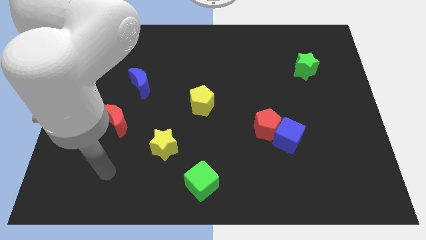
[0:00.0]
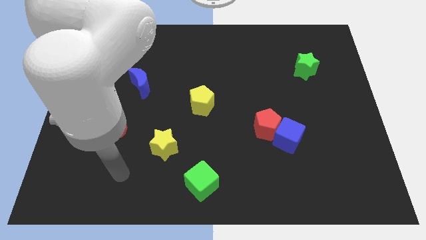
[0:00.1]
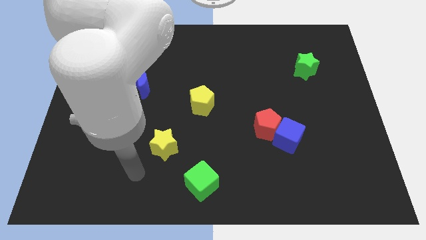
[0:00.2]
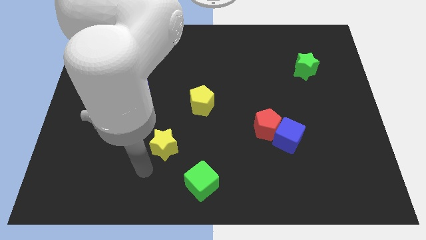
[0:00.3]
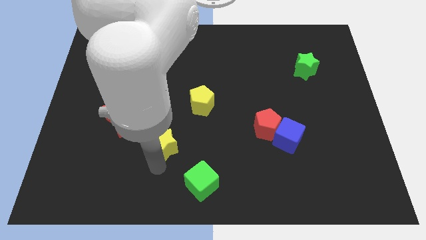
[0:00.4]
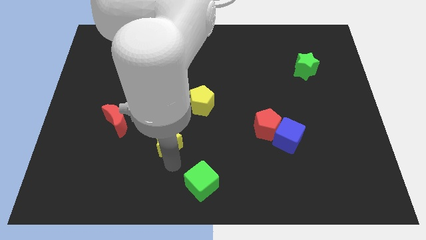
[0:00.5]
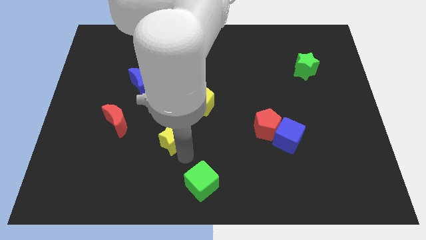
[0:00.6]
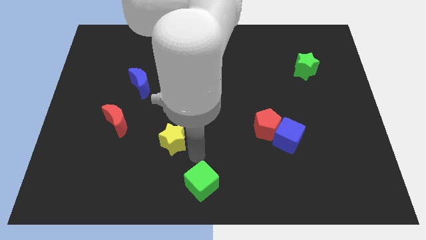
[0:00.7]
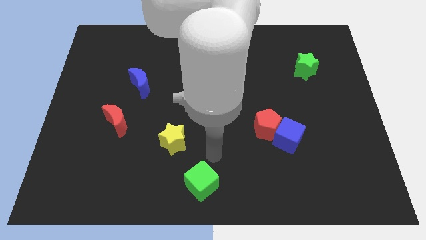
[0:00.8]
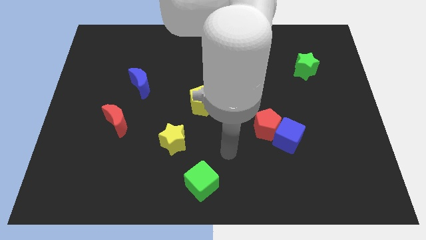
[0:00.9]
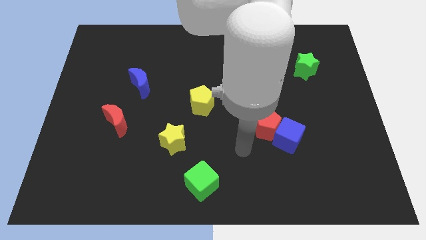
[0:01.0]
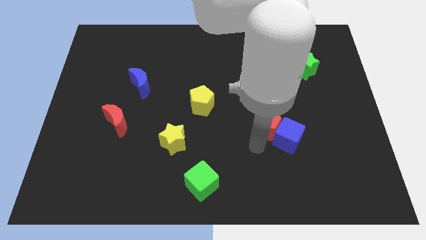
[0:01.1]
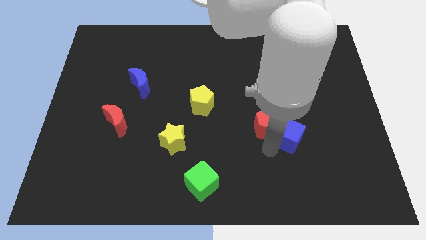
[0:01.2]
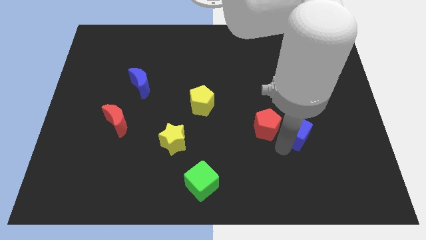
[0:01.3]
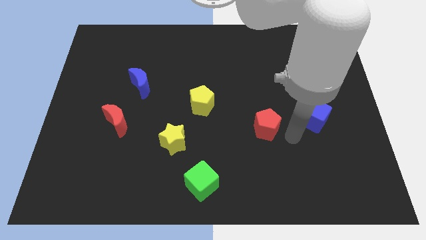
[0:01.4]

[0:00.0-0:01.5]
move the red pentagon away from the blue cube

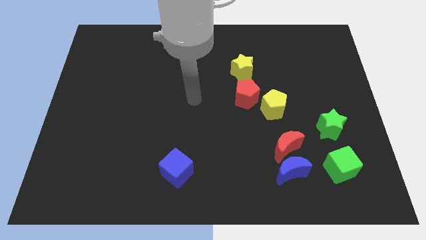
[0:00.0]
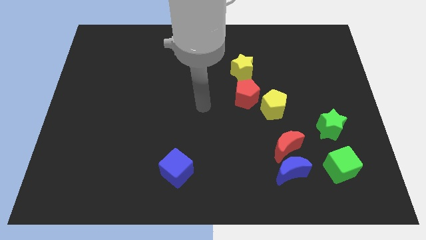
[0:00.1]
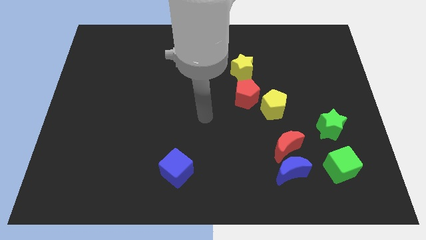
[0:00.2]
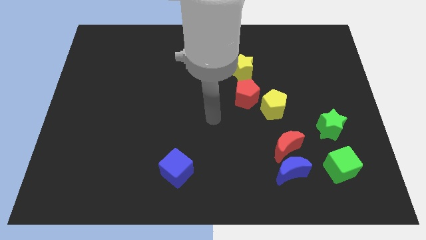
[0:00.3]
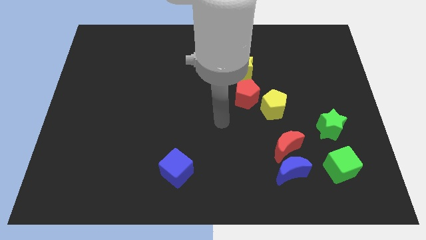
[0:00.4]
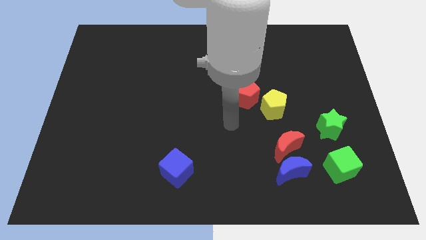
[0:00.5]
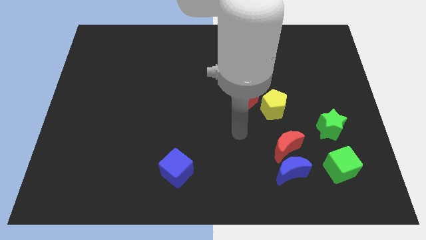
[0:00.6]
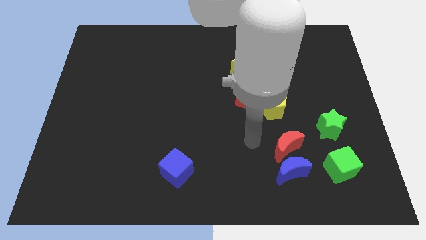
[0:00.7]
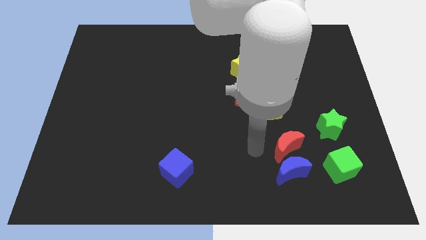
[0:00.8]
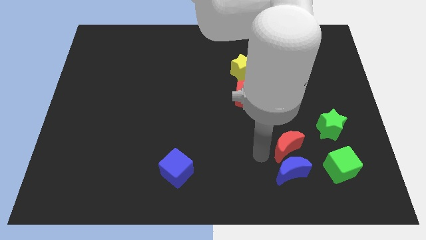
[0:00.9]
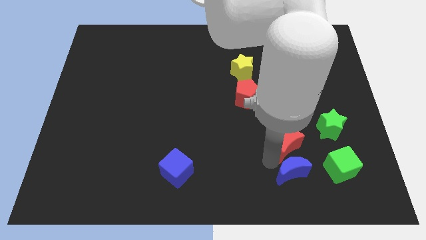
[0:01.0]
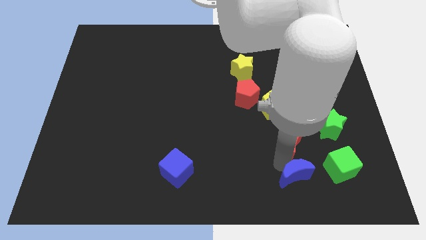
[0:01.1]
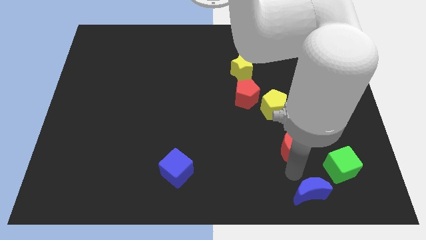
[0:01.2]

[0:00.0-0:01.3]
pull the red moon apart from the blue moon

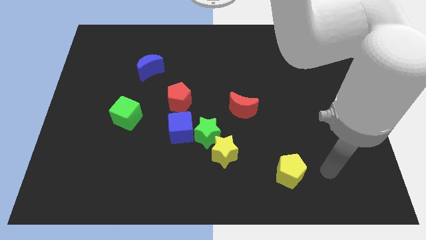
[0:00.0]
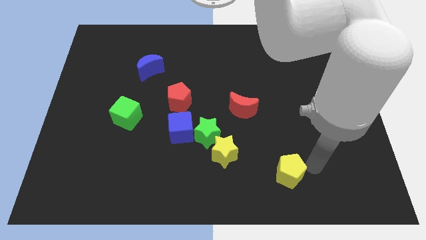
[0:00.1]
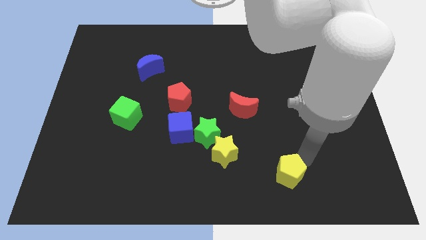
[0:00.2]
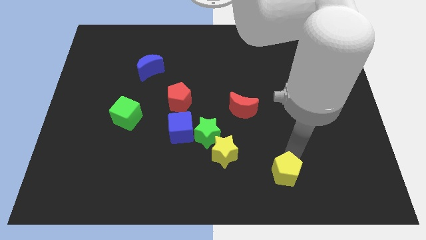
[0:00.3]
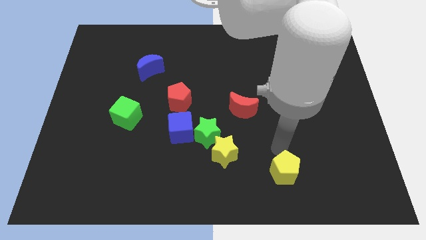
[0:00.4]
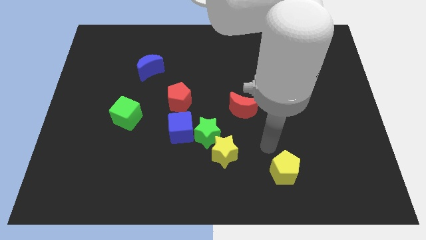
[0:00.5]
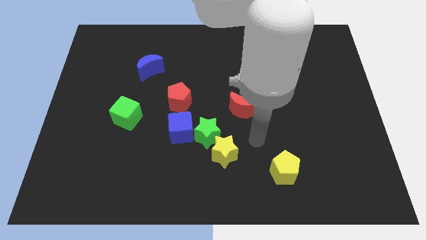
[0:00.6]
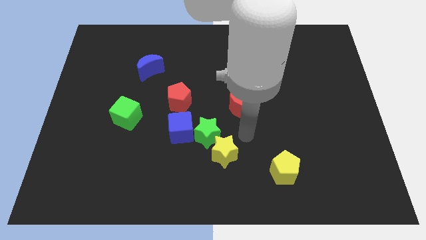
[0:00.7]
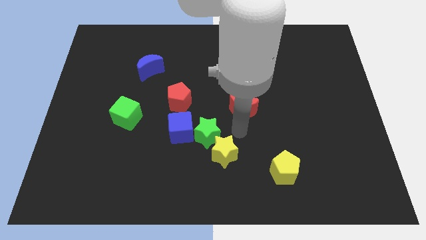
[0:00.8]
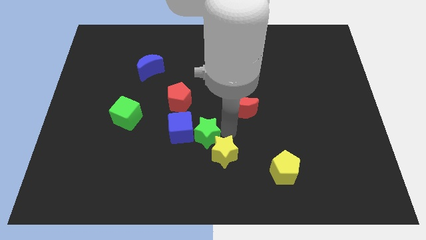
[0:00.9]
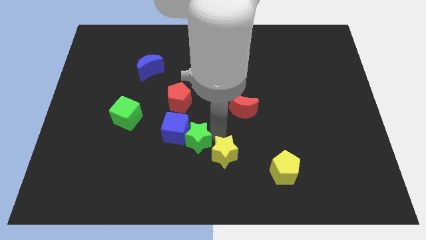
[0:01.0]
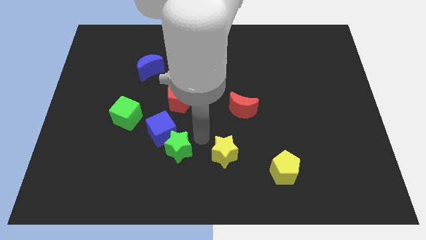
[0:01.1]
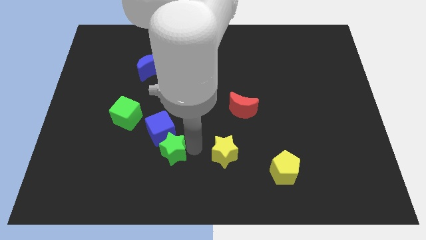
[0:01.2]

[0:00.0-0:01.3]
move the yellow star away from the green star

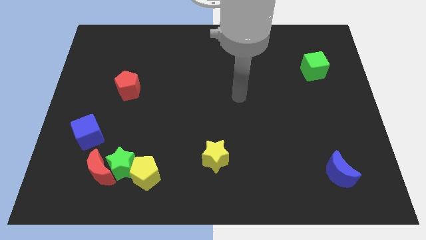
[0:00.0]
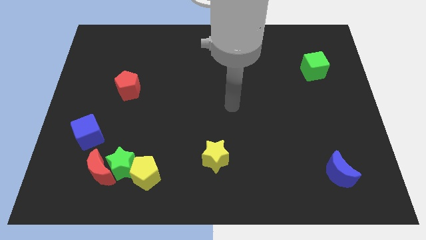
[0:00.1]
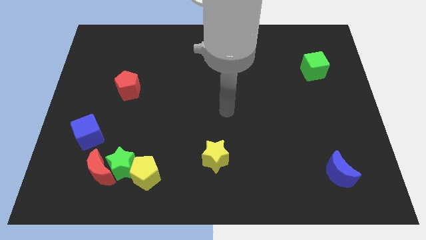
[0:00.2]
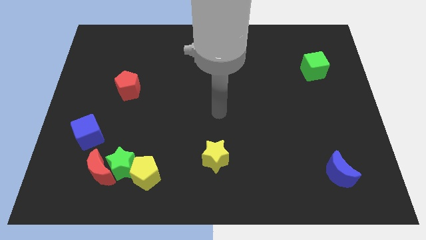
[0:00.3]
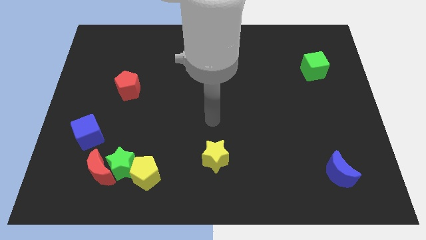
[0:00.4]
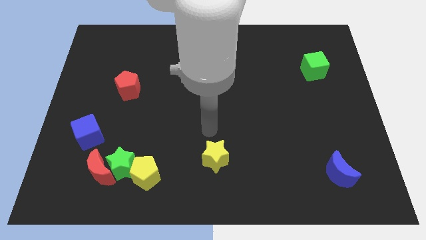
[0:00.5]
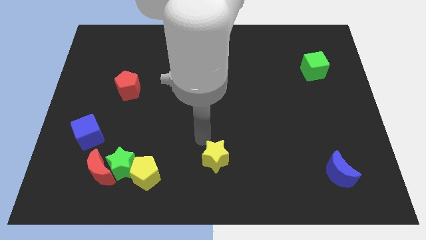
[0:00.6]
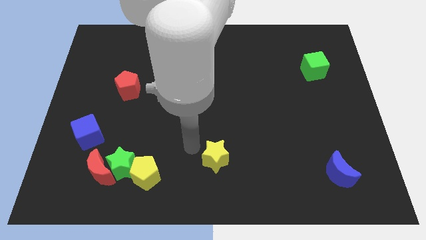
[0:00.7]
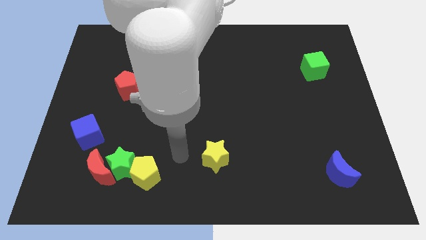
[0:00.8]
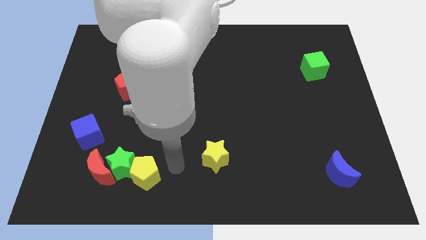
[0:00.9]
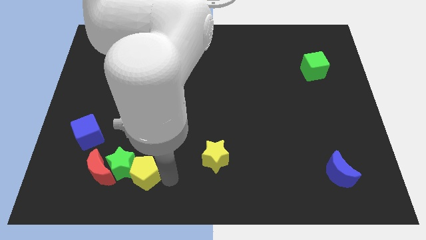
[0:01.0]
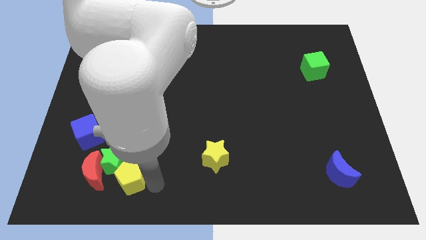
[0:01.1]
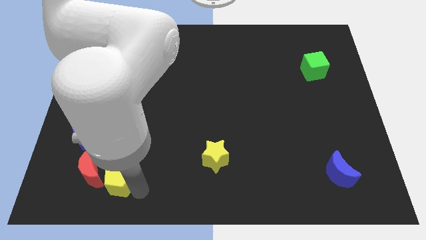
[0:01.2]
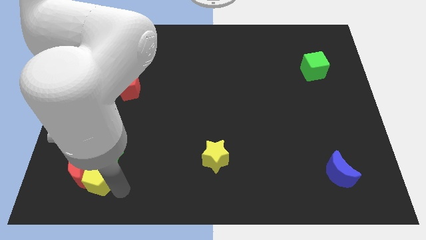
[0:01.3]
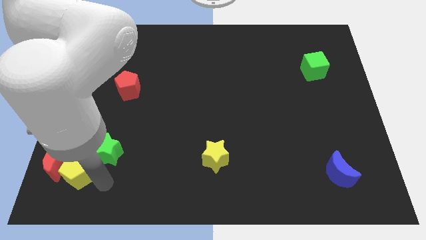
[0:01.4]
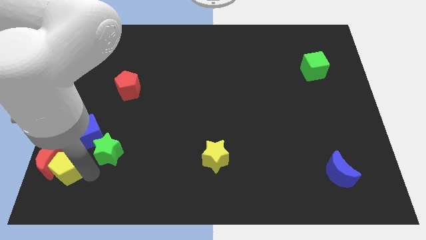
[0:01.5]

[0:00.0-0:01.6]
pull the green star apart from the red moon and yellow pentagon

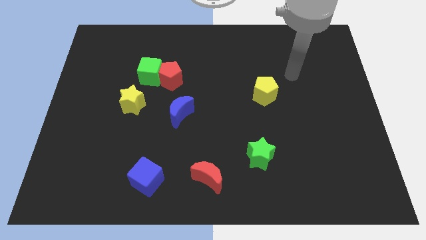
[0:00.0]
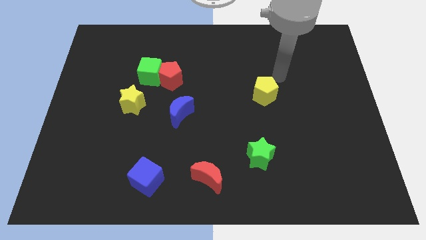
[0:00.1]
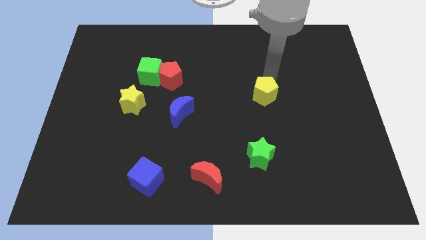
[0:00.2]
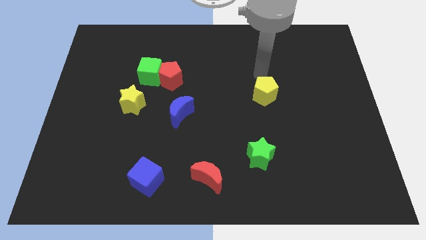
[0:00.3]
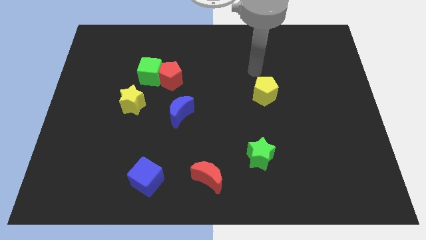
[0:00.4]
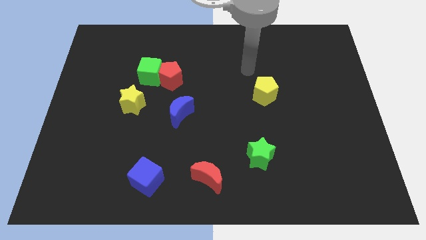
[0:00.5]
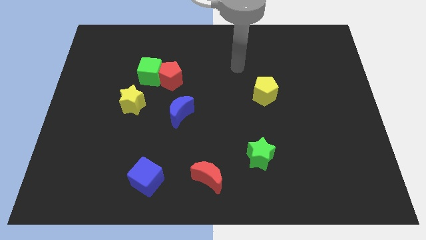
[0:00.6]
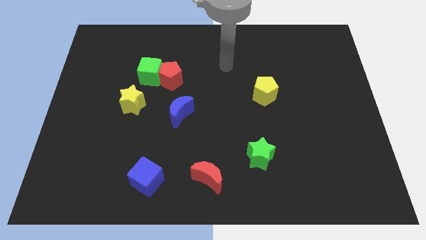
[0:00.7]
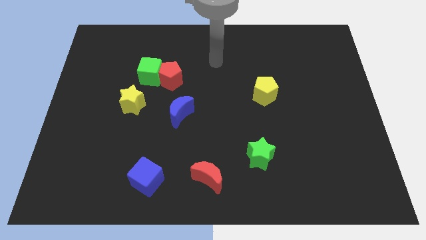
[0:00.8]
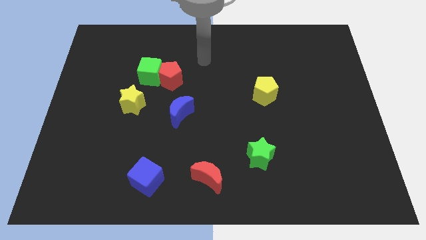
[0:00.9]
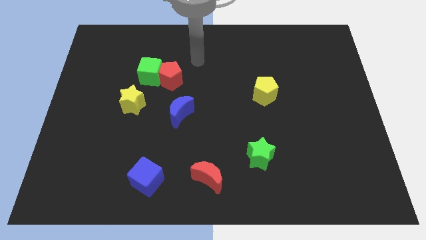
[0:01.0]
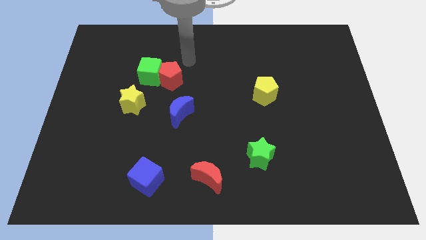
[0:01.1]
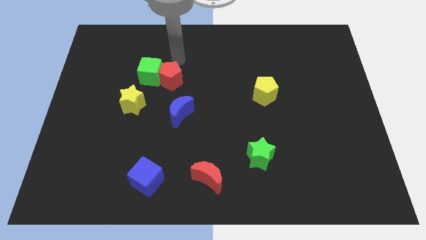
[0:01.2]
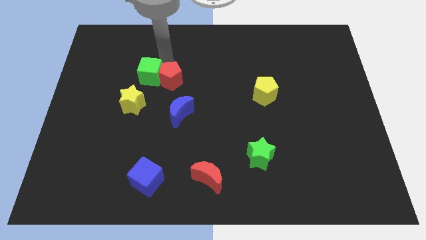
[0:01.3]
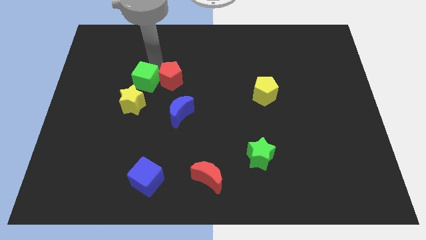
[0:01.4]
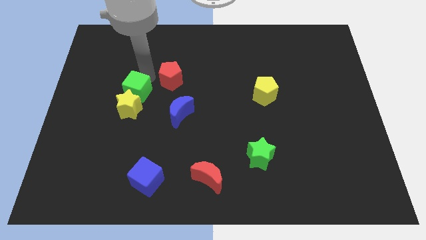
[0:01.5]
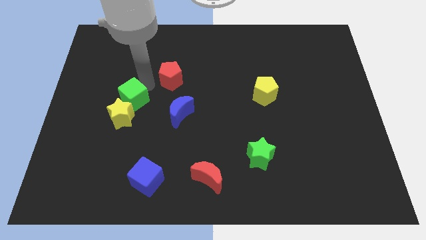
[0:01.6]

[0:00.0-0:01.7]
move the red pentagon away from the green cube

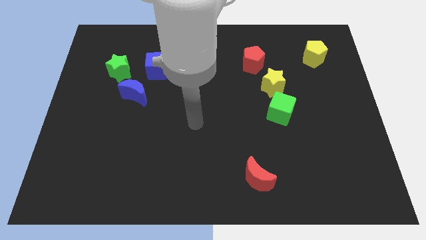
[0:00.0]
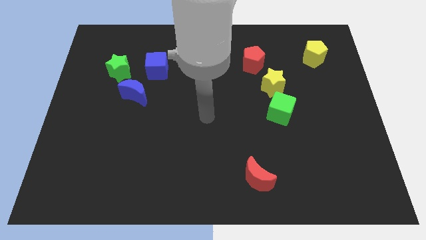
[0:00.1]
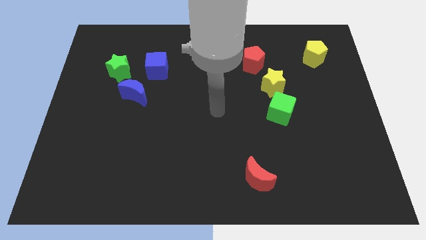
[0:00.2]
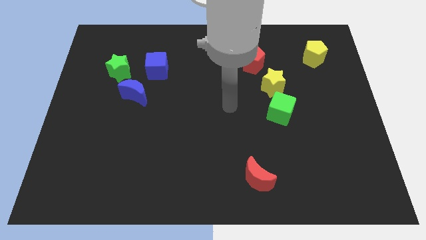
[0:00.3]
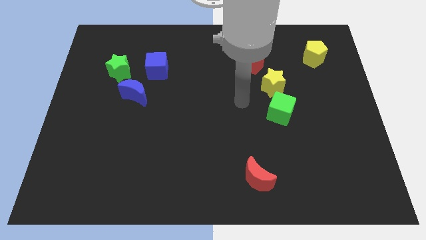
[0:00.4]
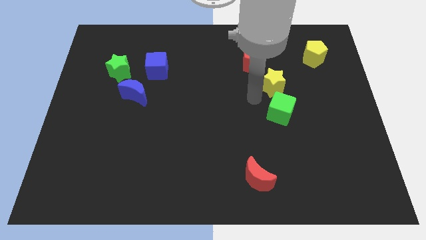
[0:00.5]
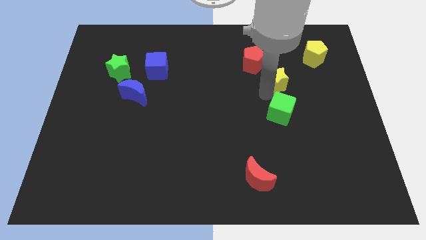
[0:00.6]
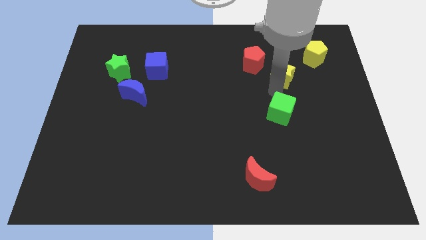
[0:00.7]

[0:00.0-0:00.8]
separate the green cube from the yellow star

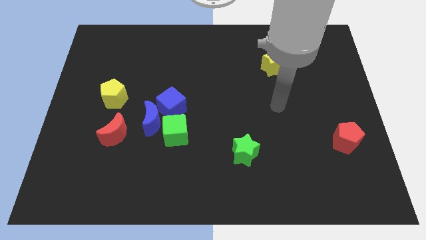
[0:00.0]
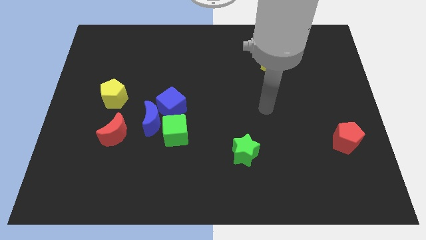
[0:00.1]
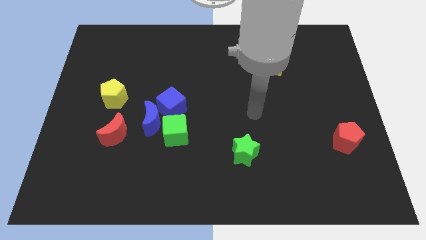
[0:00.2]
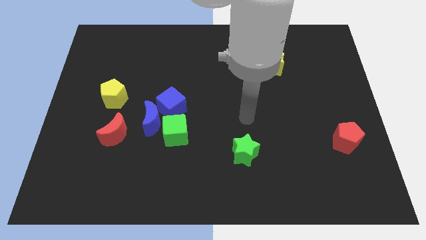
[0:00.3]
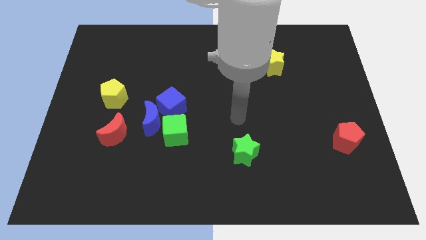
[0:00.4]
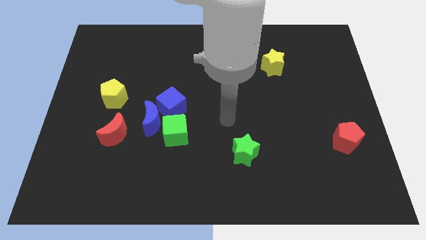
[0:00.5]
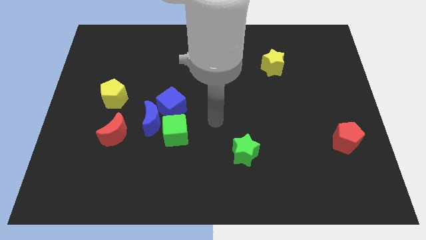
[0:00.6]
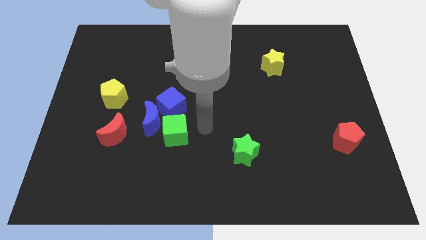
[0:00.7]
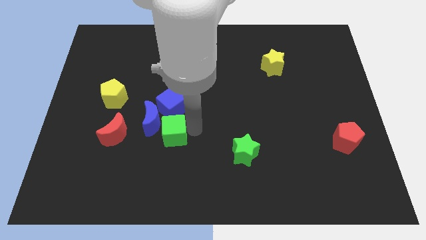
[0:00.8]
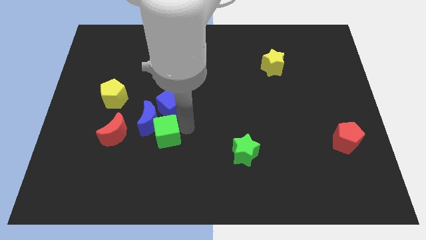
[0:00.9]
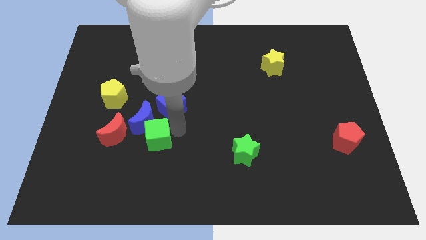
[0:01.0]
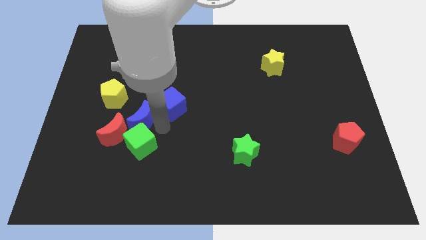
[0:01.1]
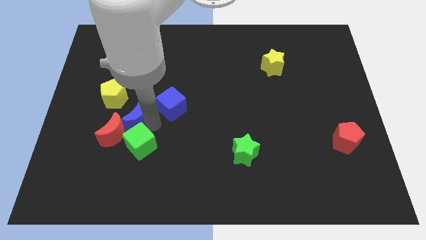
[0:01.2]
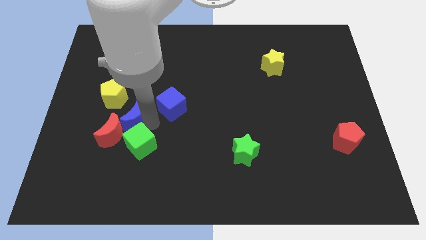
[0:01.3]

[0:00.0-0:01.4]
move the blue cube away from the blue moon and green cube
